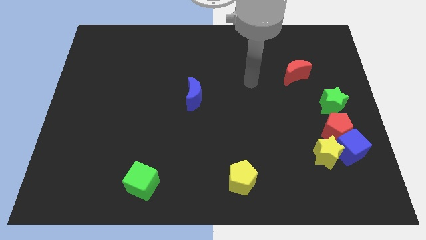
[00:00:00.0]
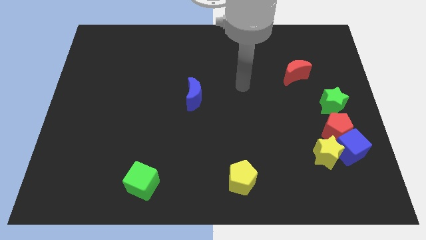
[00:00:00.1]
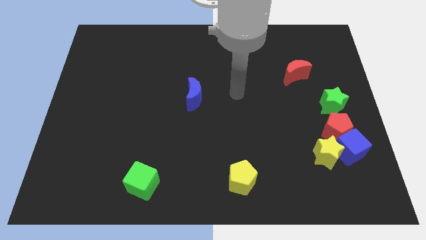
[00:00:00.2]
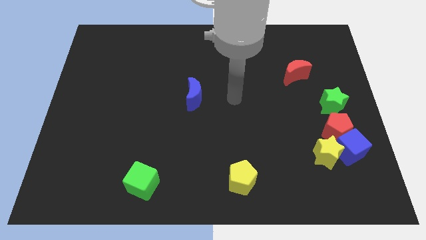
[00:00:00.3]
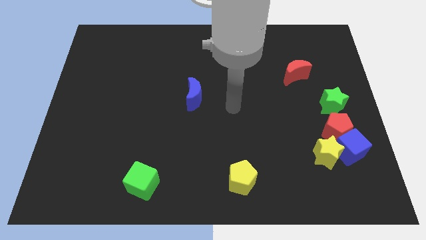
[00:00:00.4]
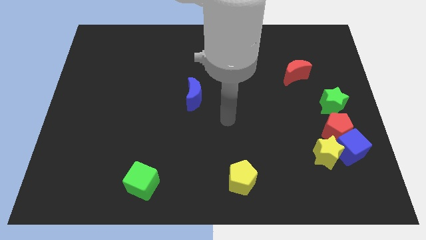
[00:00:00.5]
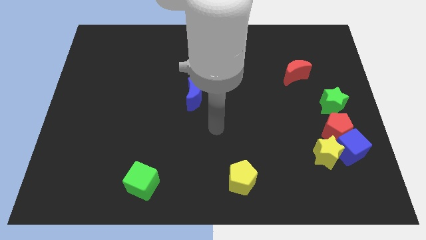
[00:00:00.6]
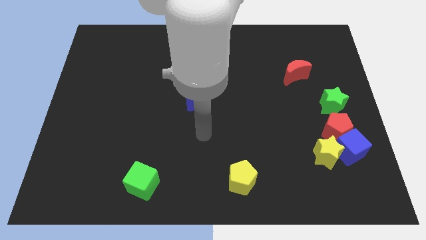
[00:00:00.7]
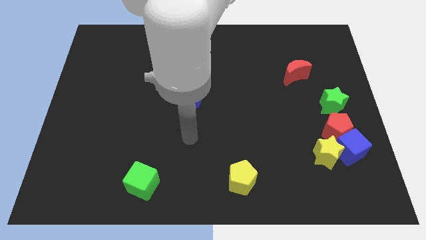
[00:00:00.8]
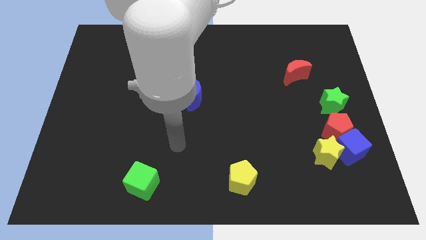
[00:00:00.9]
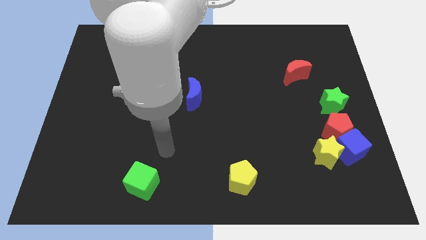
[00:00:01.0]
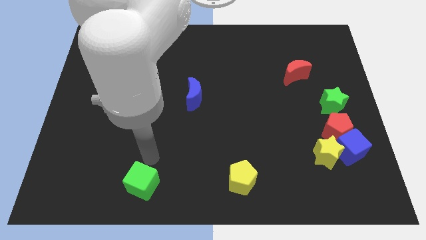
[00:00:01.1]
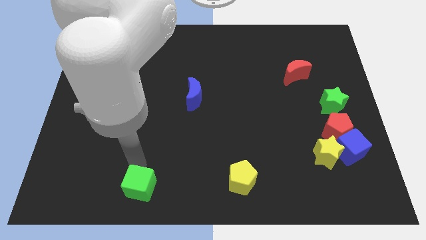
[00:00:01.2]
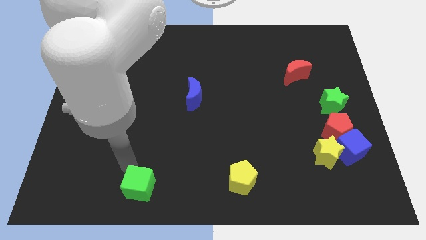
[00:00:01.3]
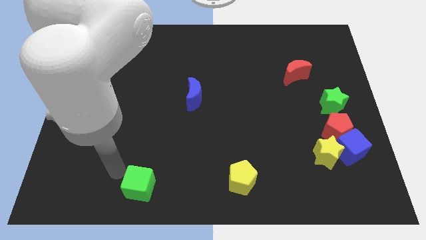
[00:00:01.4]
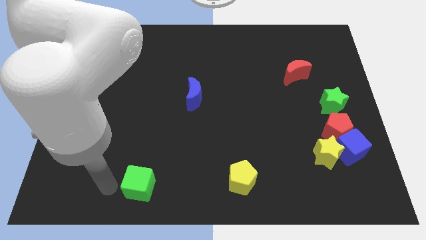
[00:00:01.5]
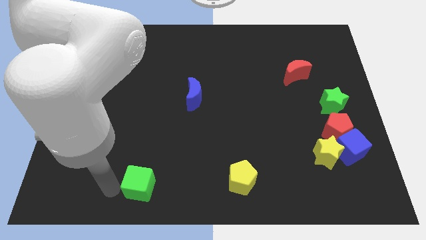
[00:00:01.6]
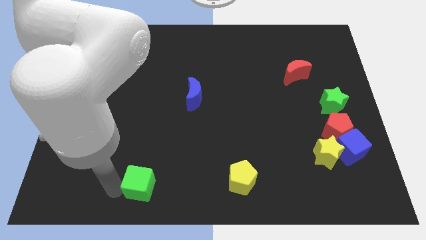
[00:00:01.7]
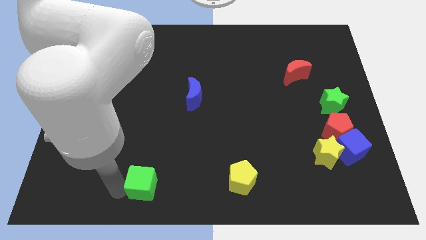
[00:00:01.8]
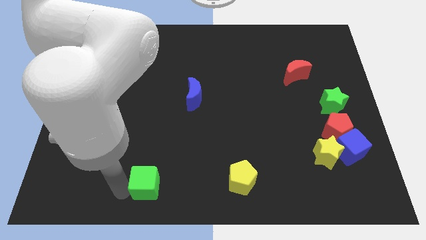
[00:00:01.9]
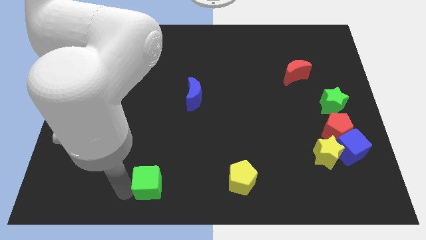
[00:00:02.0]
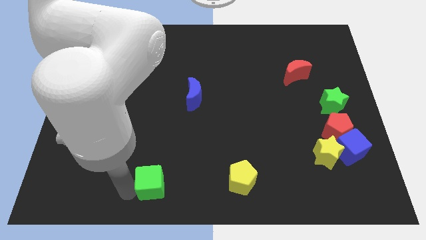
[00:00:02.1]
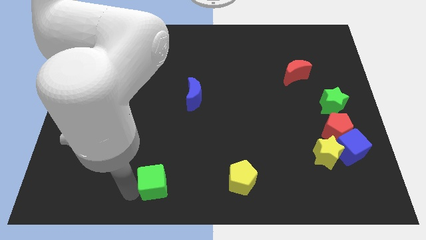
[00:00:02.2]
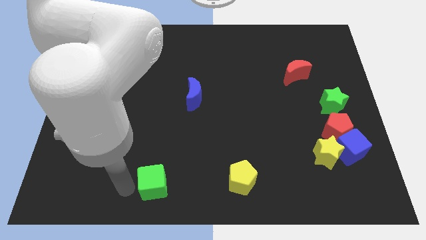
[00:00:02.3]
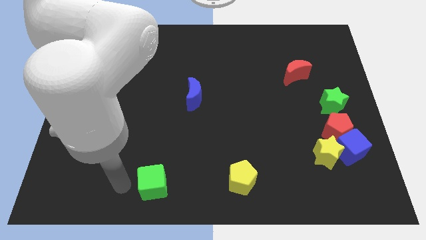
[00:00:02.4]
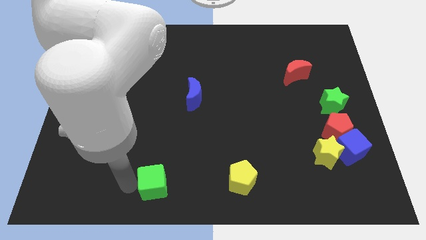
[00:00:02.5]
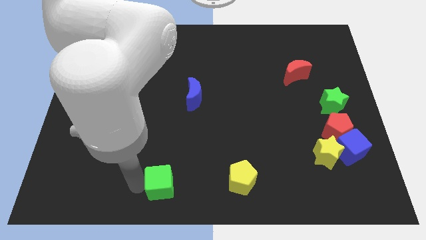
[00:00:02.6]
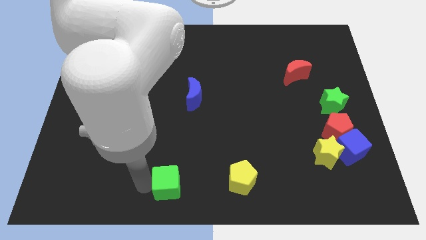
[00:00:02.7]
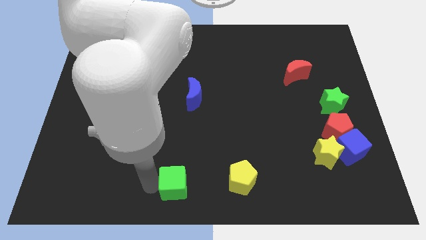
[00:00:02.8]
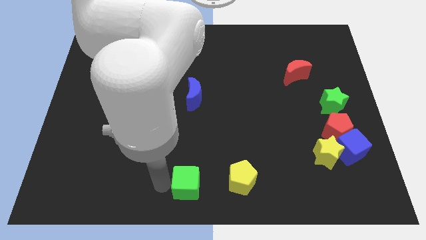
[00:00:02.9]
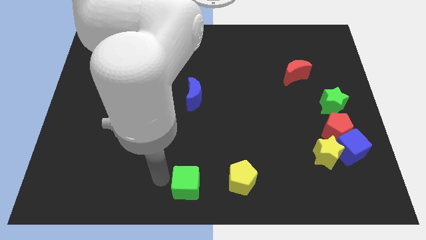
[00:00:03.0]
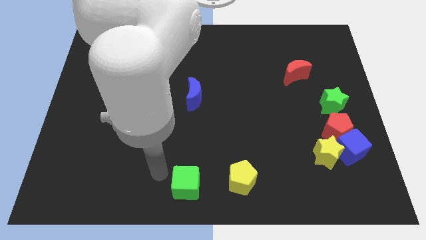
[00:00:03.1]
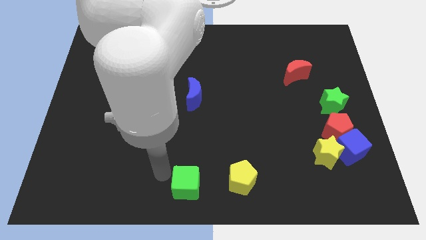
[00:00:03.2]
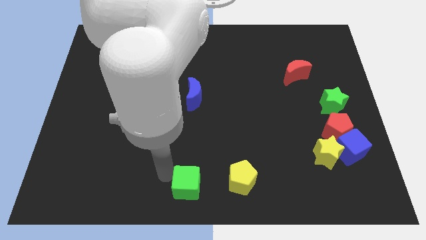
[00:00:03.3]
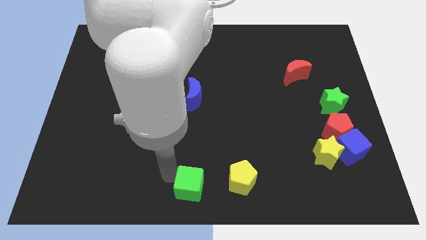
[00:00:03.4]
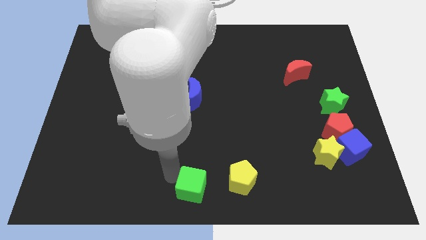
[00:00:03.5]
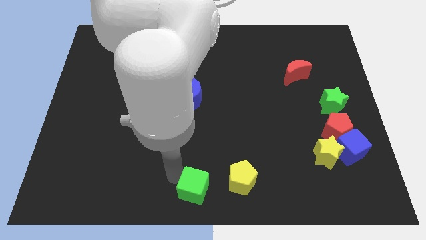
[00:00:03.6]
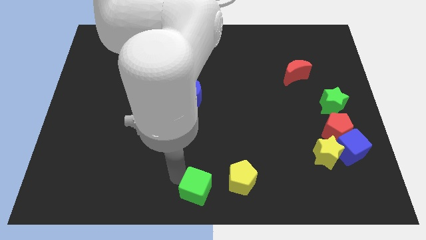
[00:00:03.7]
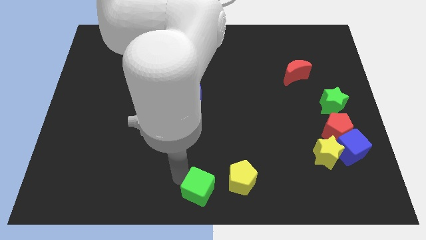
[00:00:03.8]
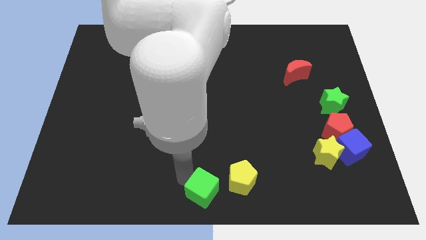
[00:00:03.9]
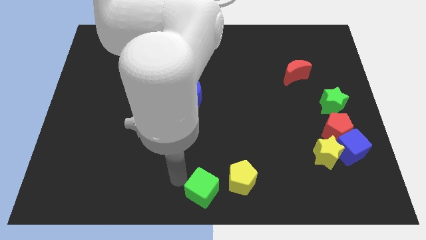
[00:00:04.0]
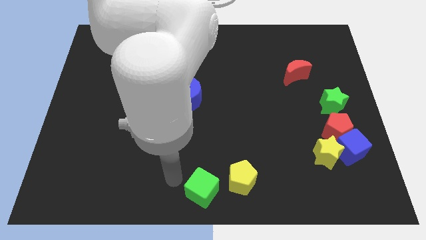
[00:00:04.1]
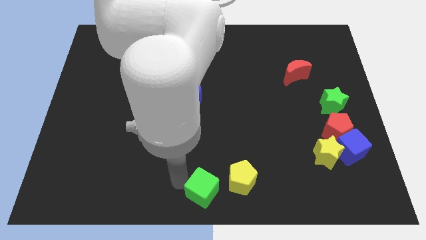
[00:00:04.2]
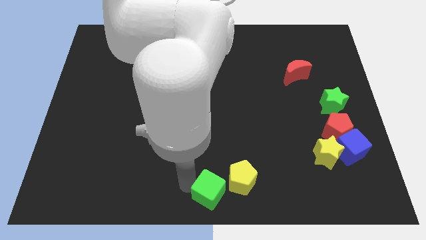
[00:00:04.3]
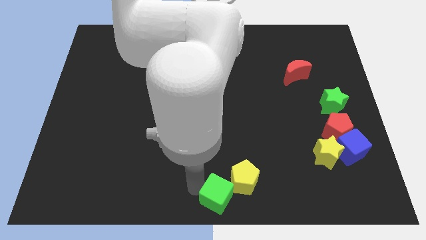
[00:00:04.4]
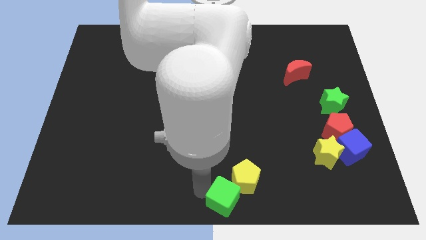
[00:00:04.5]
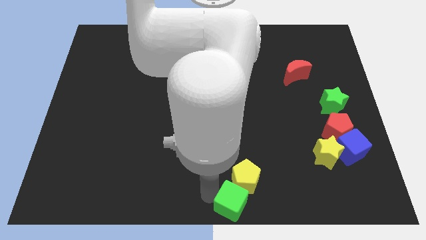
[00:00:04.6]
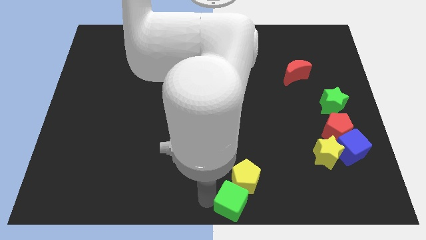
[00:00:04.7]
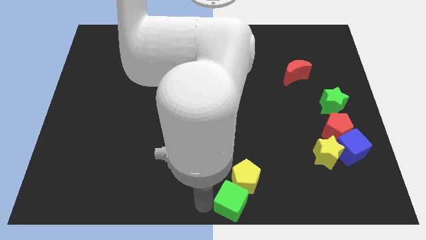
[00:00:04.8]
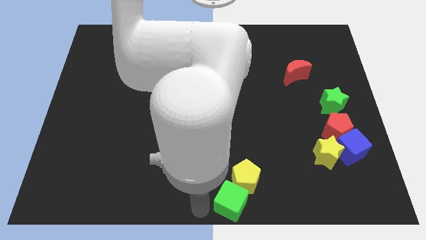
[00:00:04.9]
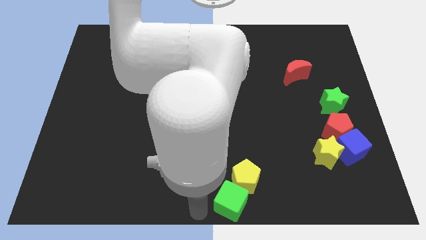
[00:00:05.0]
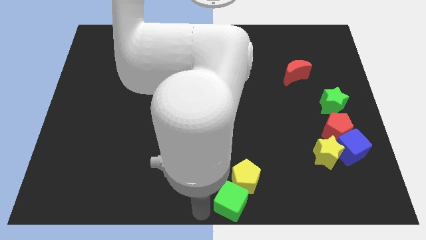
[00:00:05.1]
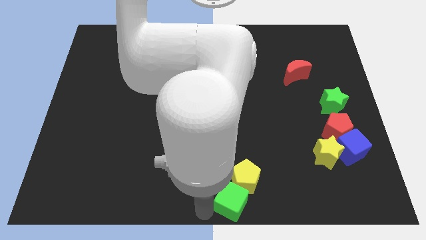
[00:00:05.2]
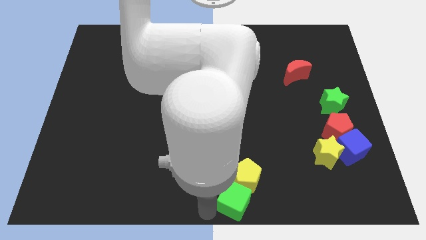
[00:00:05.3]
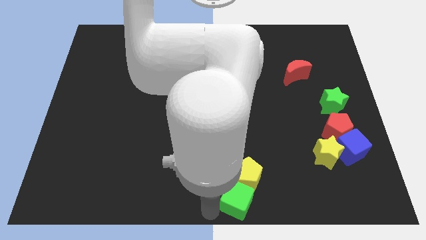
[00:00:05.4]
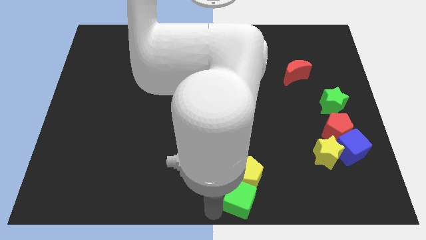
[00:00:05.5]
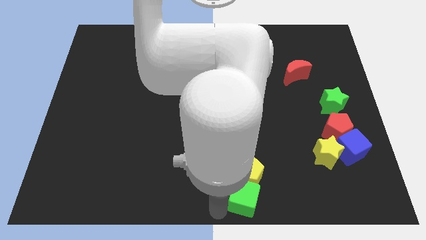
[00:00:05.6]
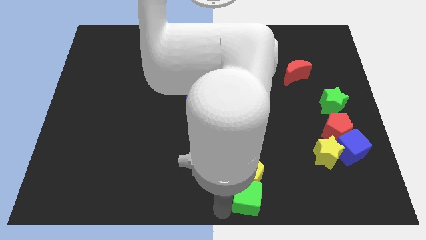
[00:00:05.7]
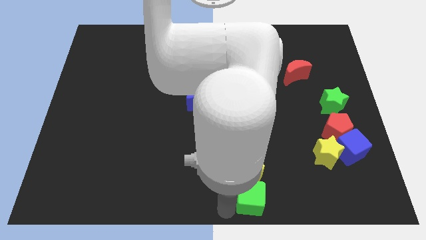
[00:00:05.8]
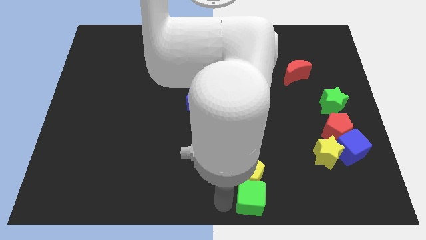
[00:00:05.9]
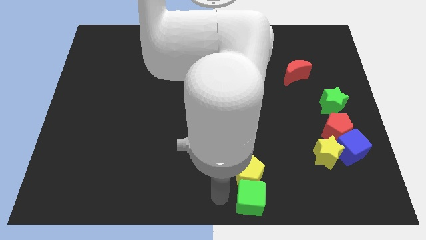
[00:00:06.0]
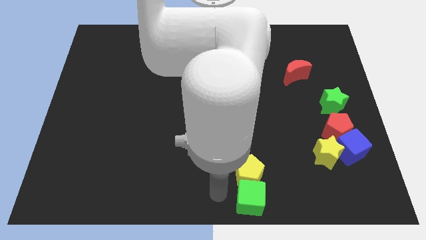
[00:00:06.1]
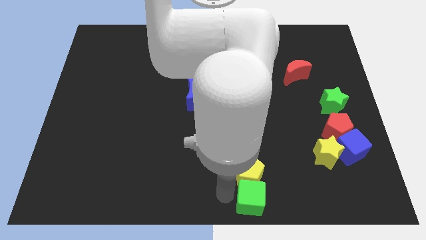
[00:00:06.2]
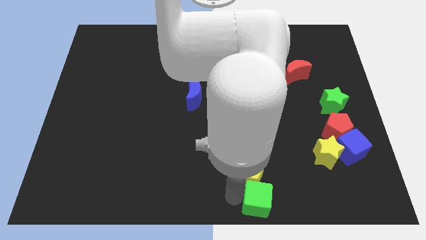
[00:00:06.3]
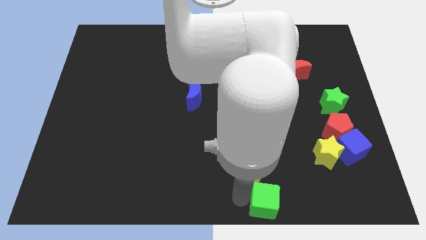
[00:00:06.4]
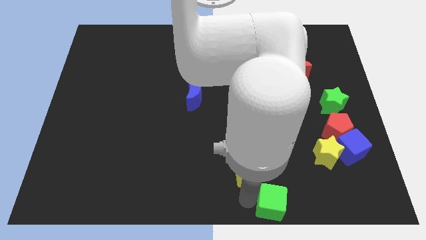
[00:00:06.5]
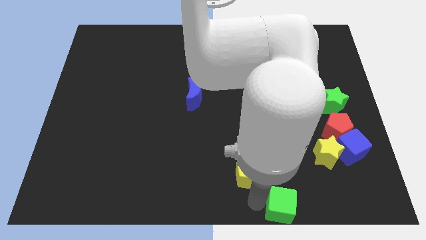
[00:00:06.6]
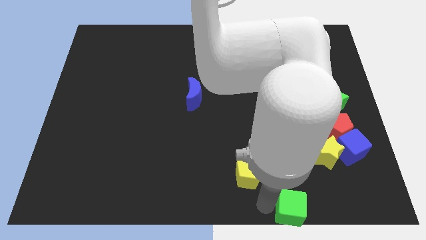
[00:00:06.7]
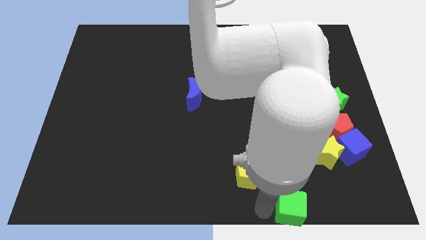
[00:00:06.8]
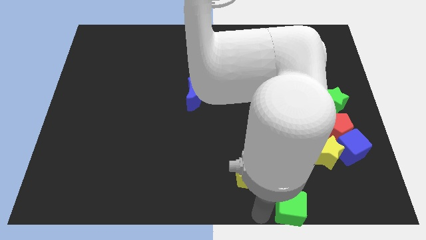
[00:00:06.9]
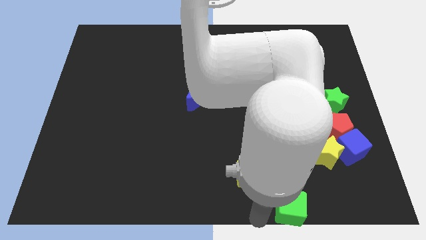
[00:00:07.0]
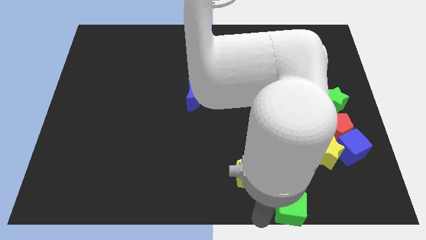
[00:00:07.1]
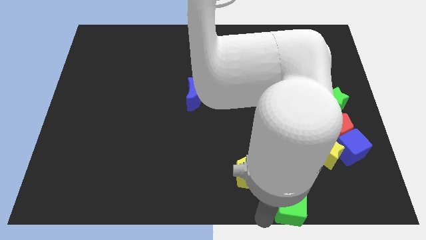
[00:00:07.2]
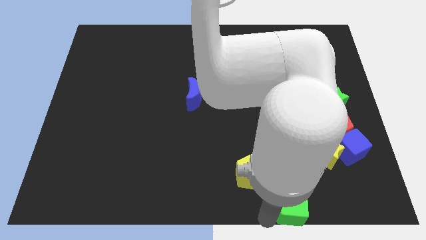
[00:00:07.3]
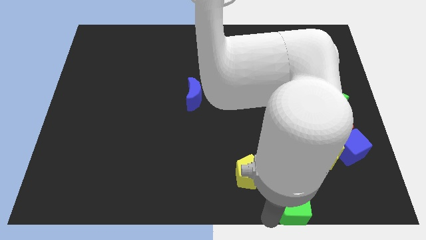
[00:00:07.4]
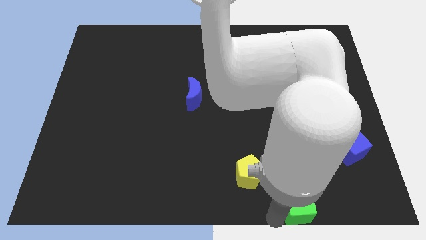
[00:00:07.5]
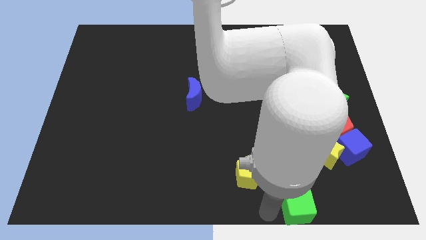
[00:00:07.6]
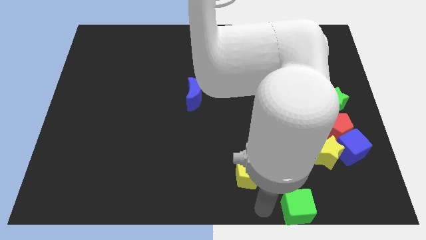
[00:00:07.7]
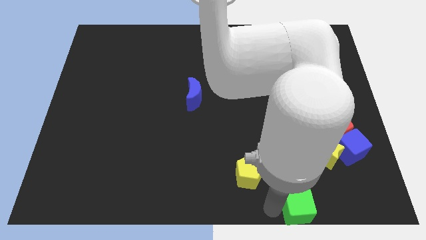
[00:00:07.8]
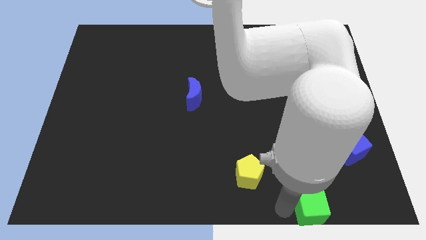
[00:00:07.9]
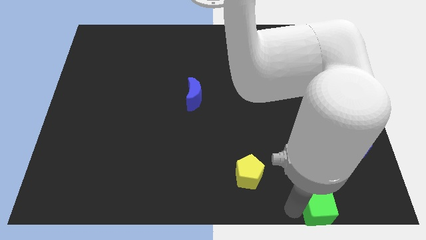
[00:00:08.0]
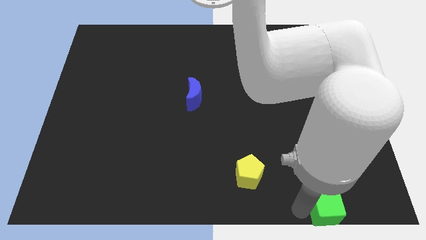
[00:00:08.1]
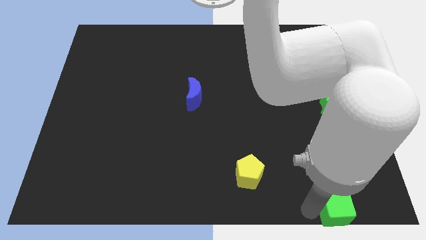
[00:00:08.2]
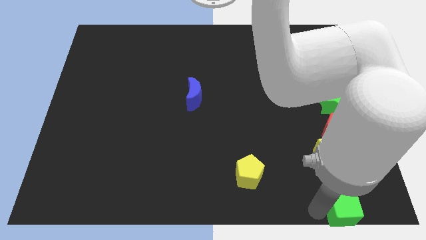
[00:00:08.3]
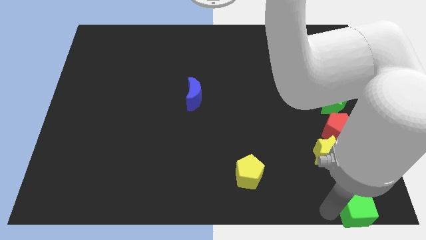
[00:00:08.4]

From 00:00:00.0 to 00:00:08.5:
push the green cube to the bottom right corner
